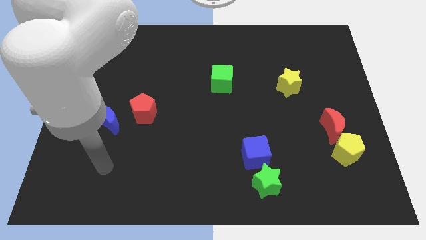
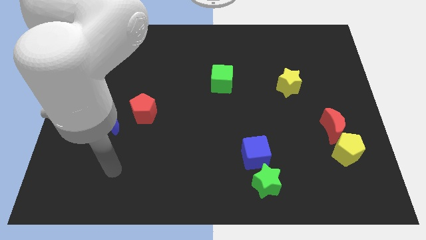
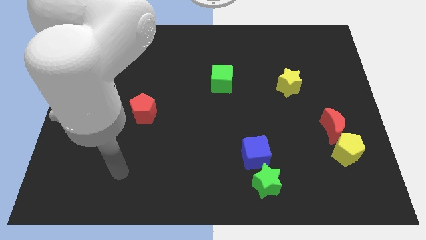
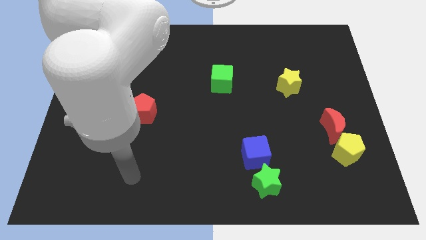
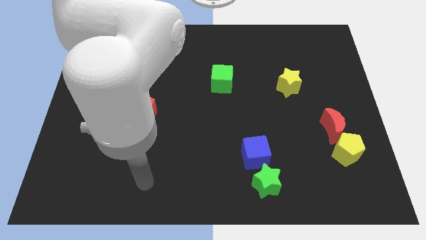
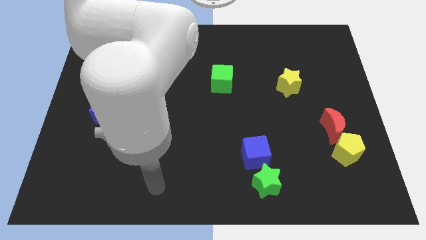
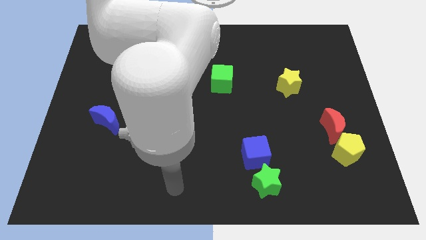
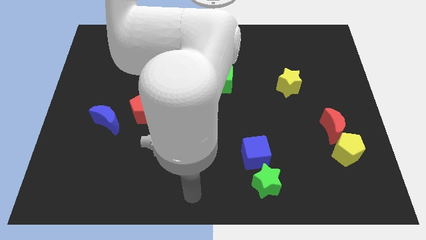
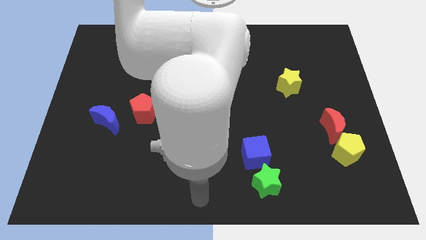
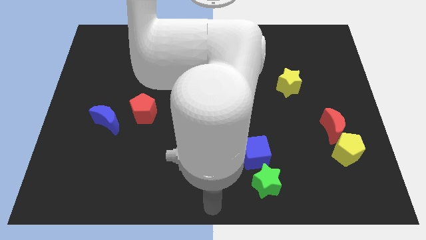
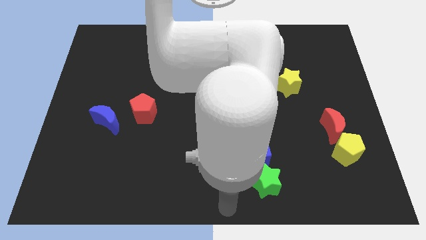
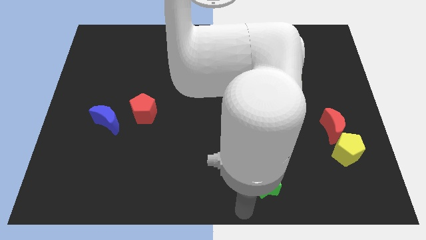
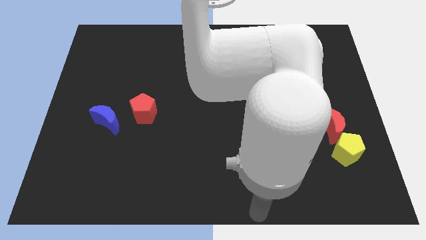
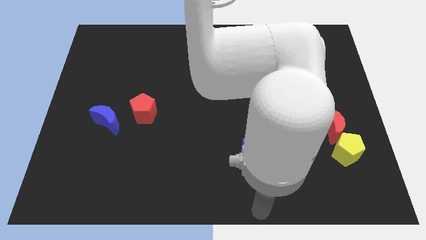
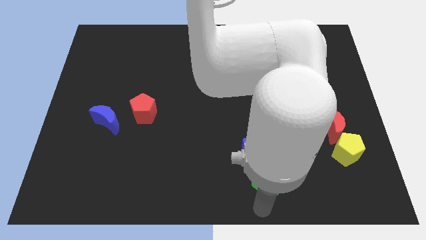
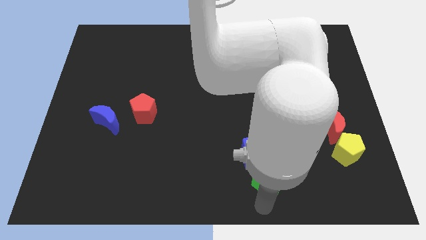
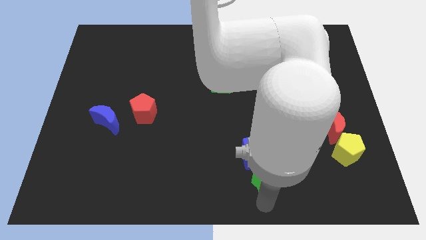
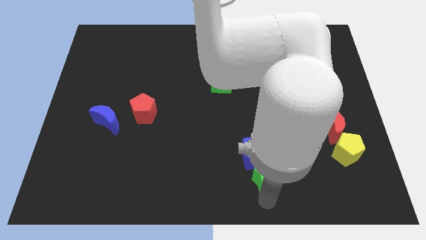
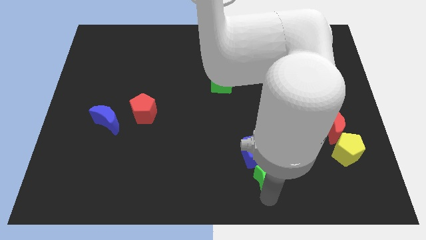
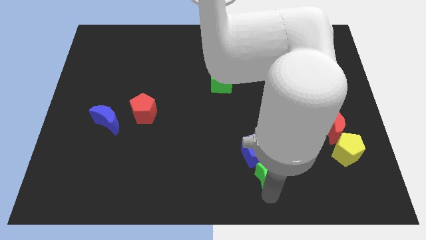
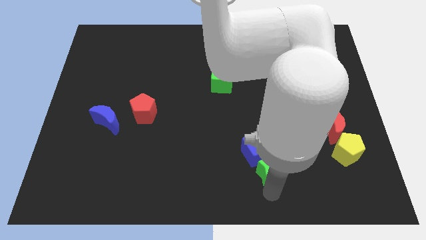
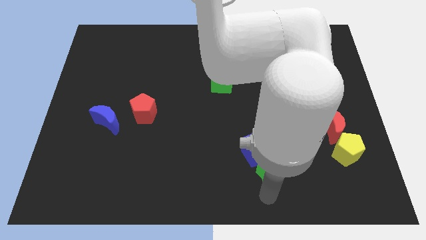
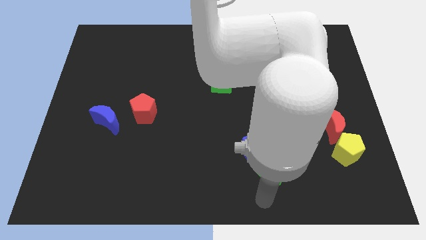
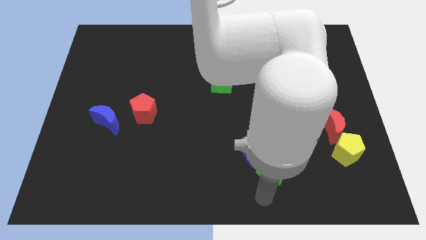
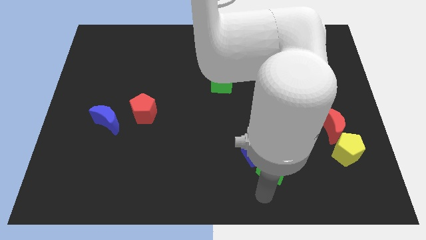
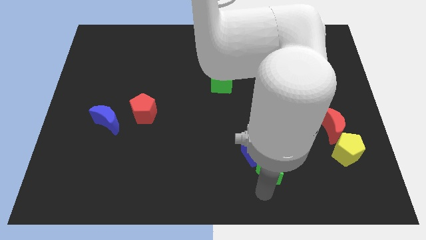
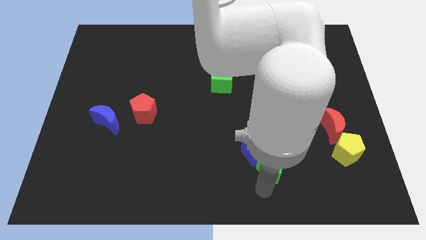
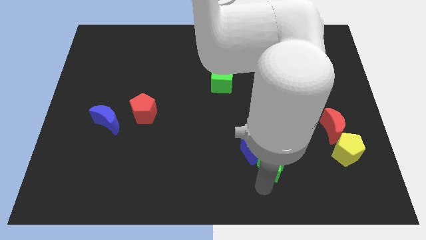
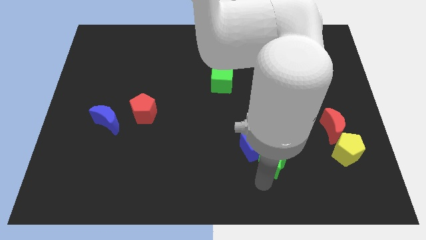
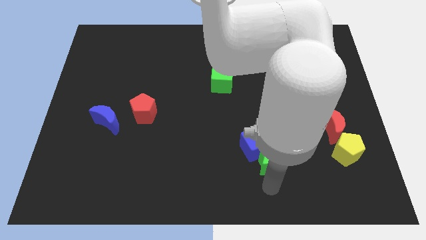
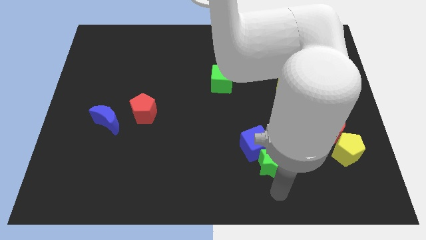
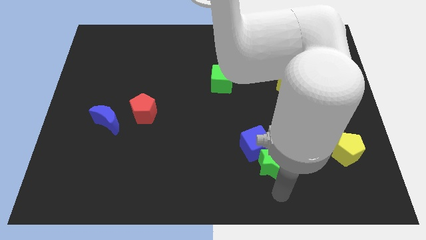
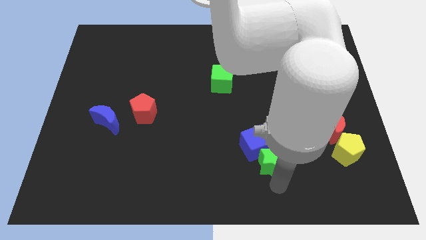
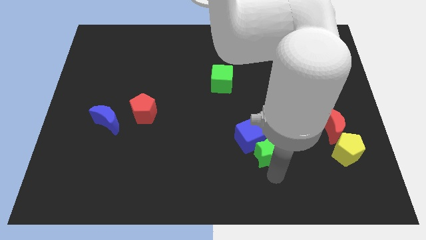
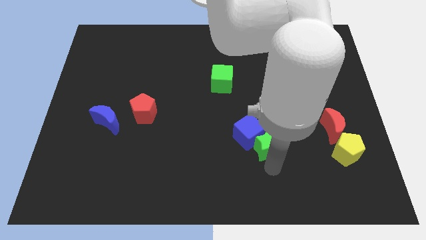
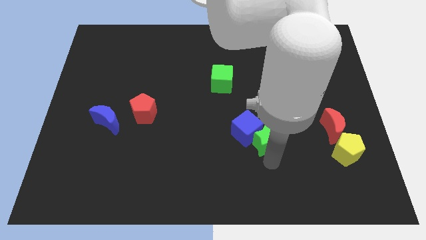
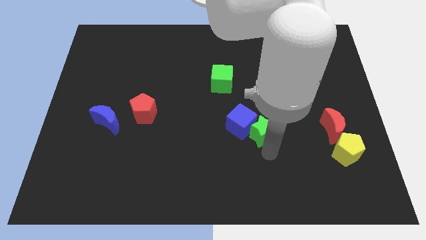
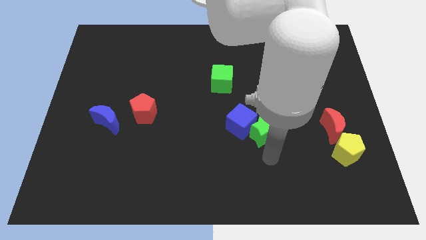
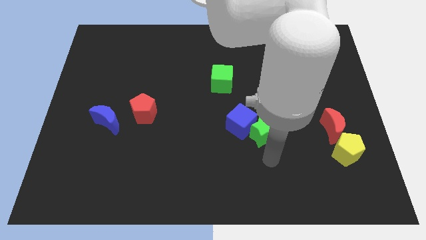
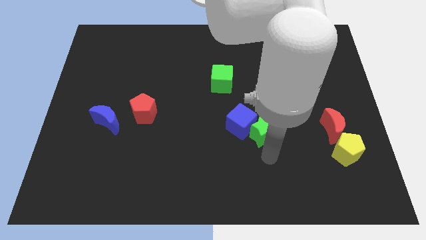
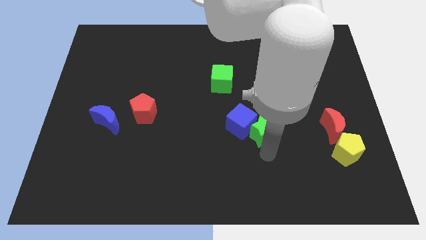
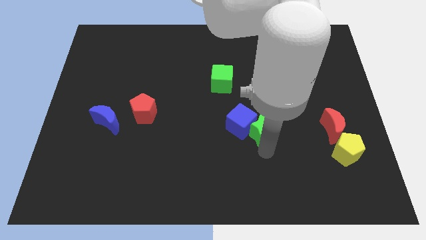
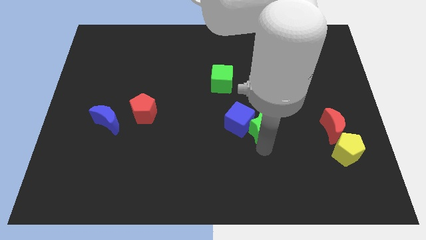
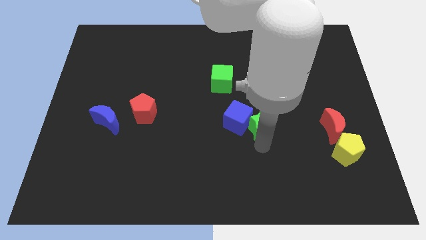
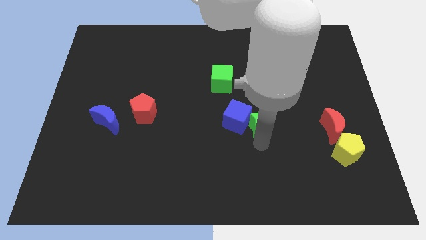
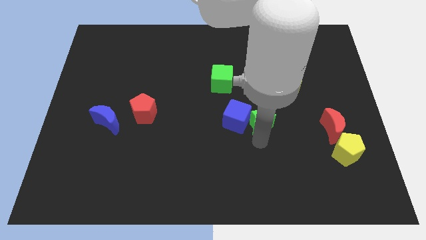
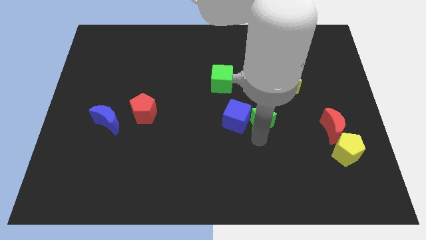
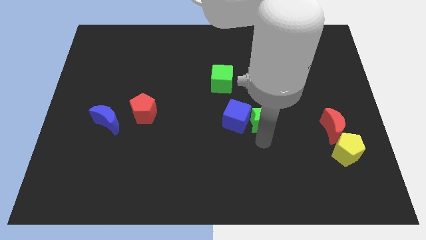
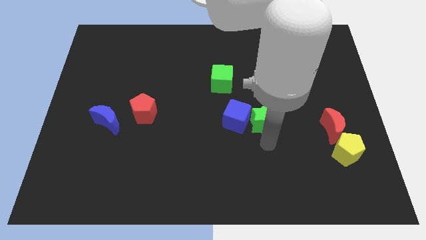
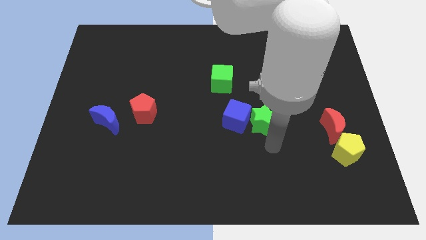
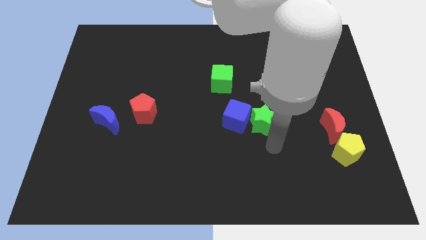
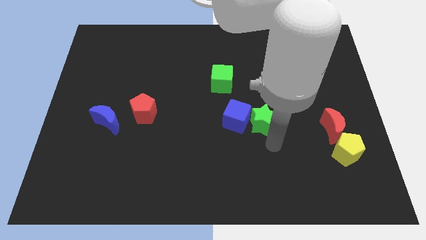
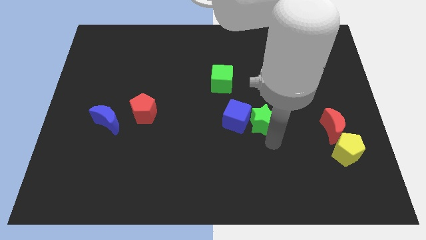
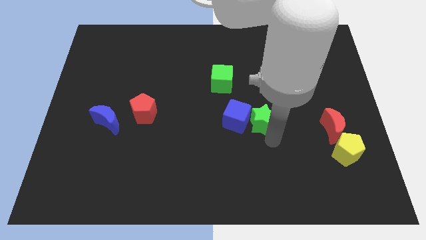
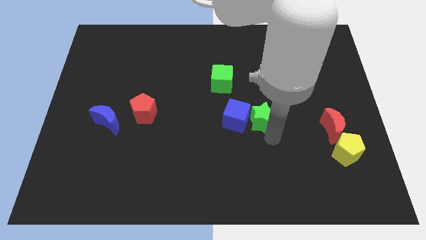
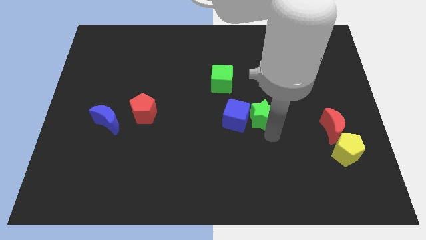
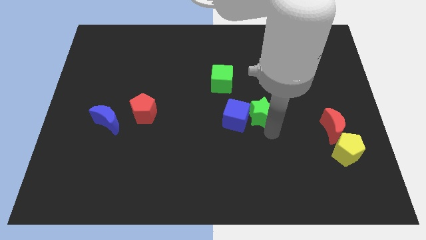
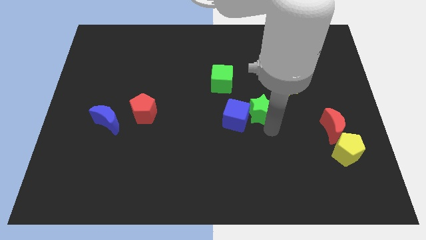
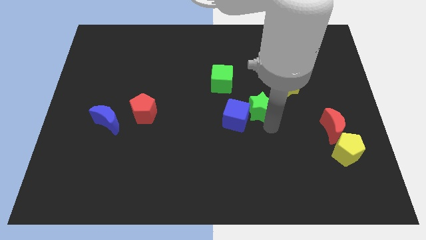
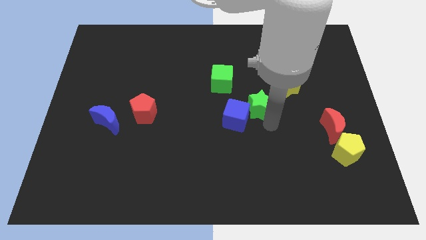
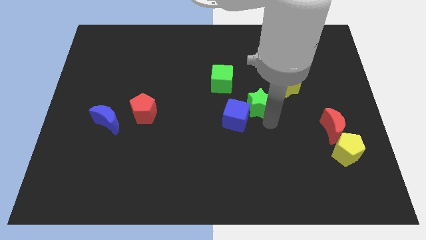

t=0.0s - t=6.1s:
push the green star up

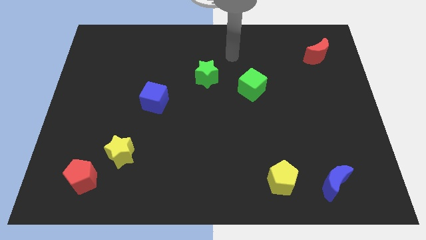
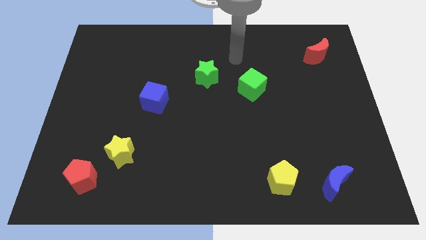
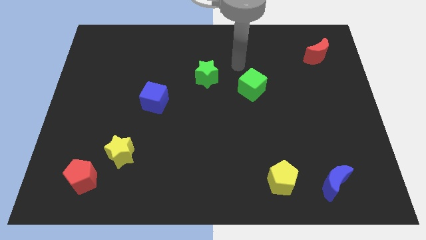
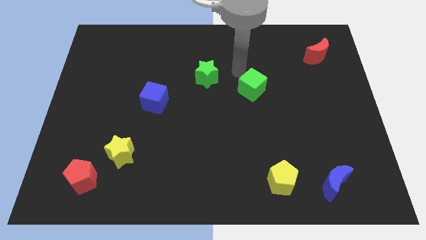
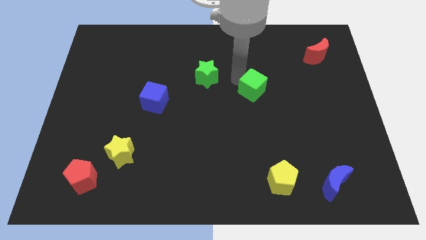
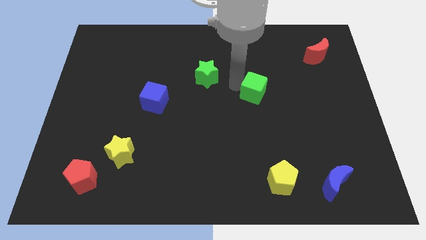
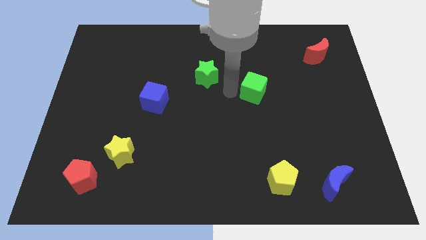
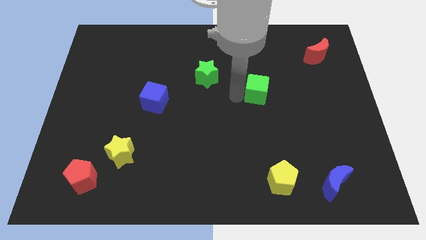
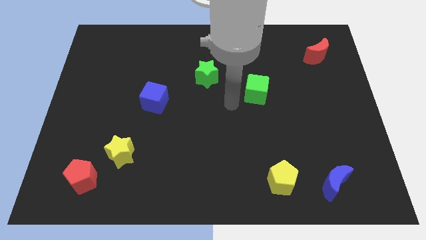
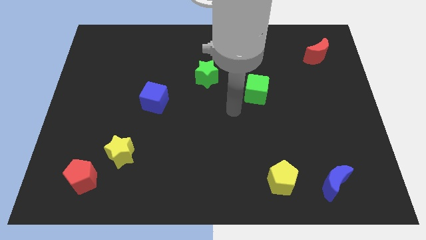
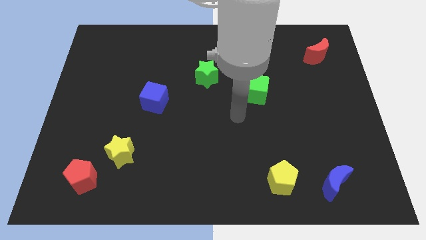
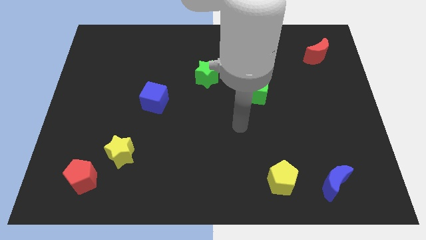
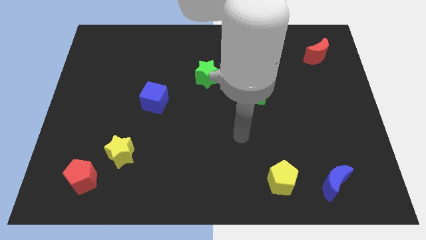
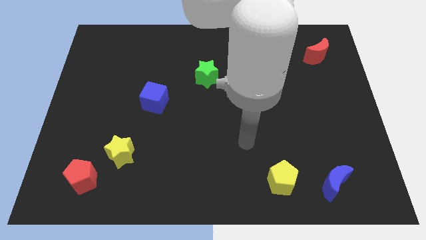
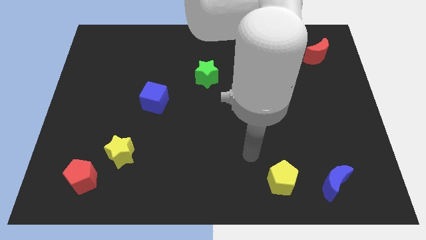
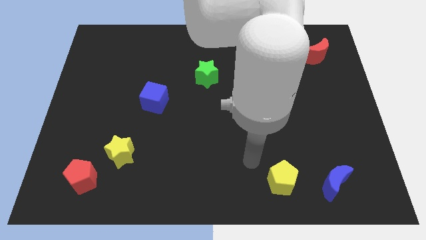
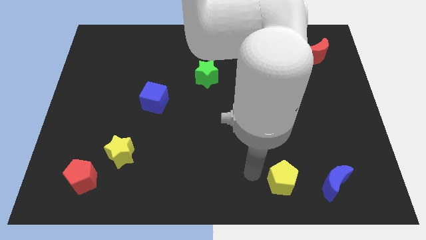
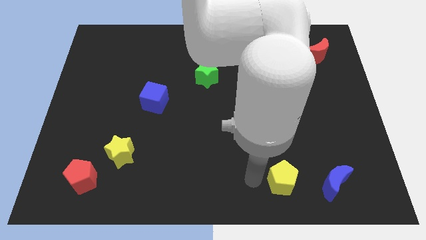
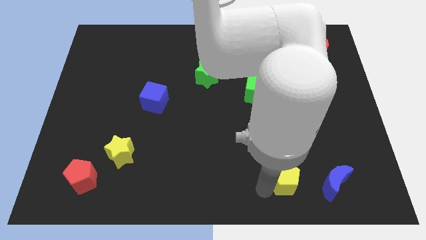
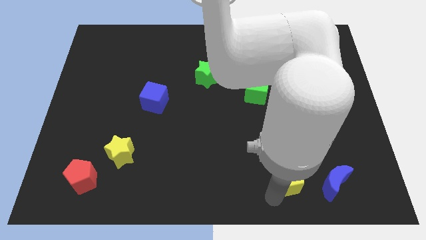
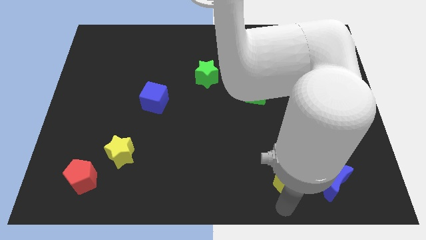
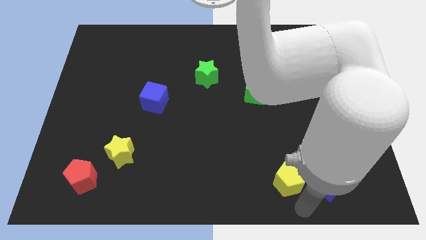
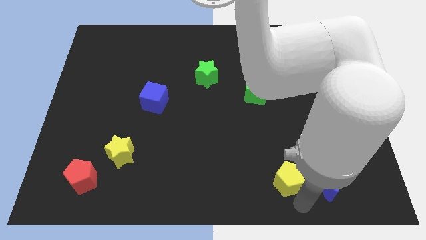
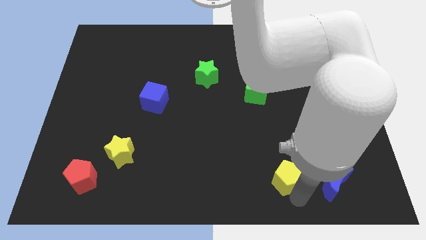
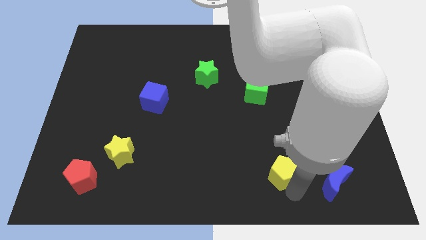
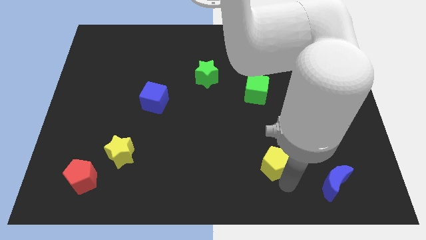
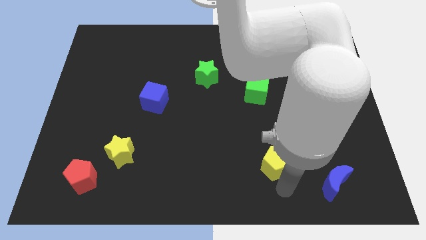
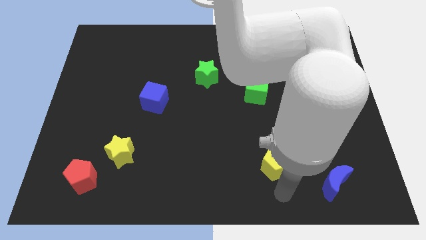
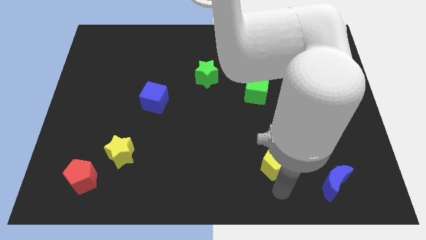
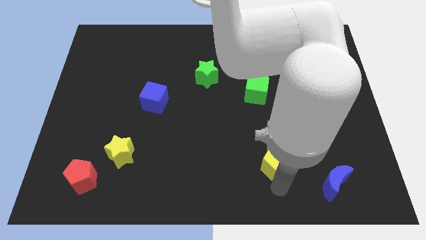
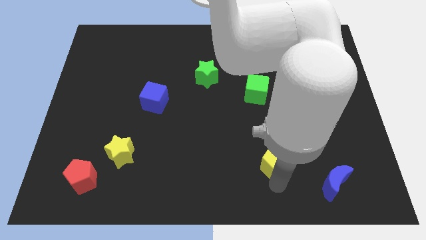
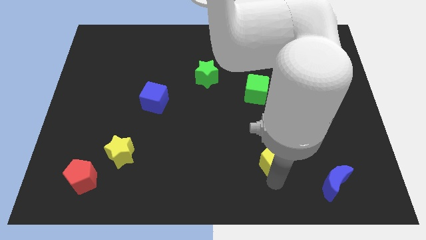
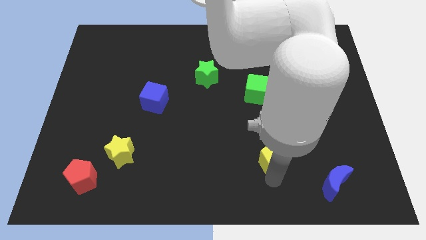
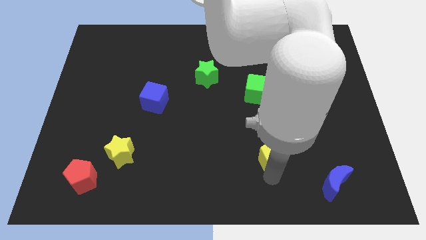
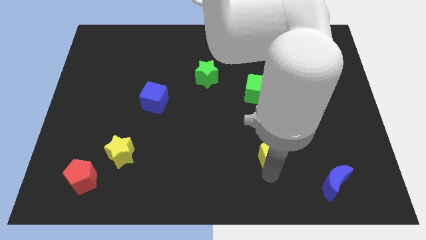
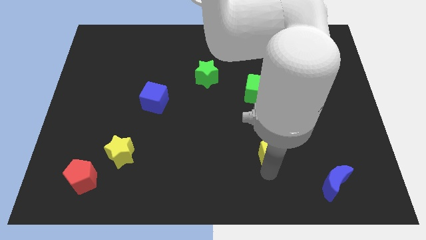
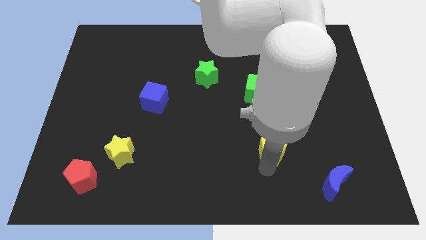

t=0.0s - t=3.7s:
move the yellow pentagon up somewhat
